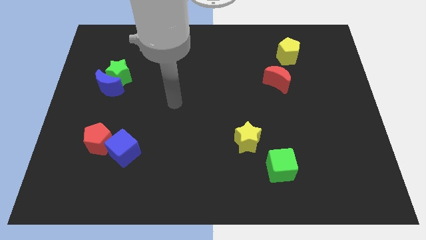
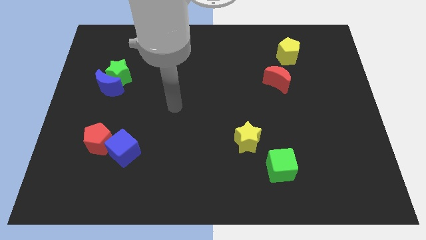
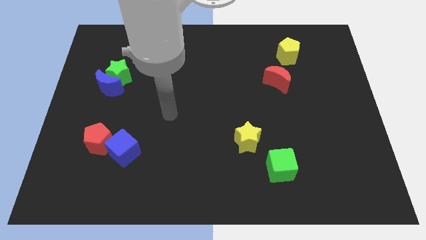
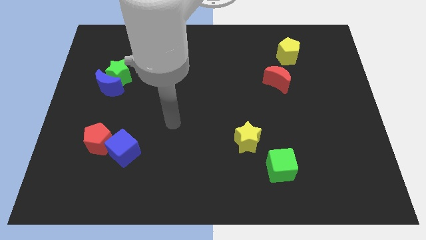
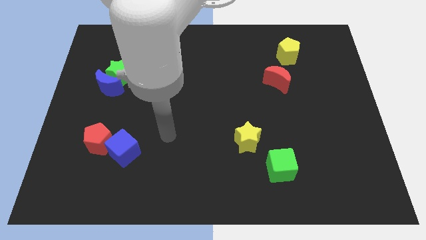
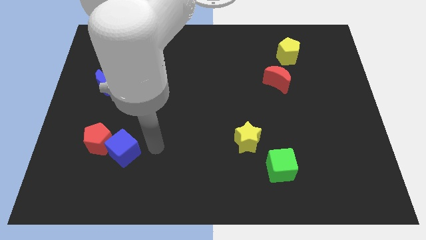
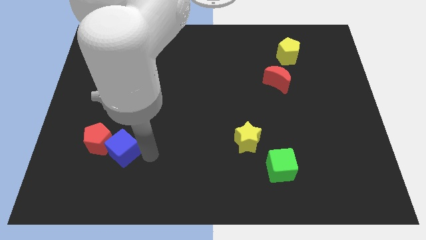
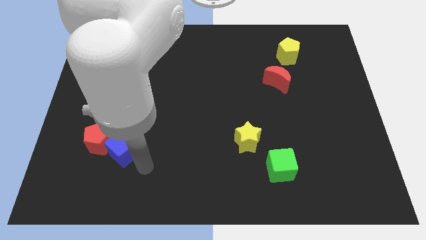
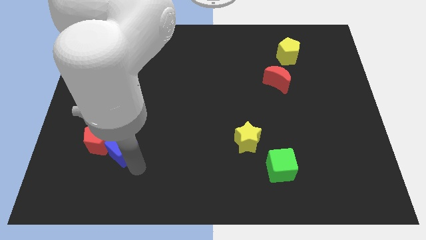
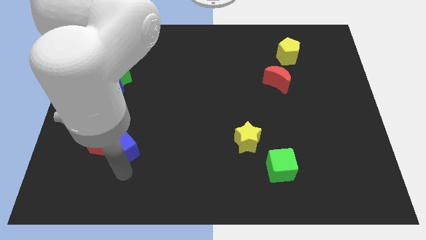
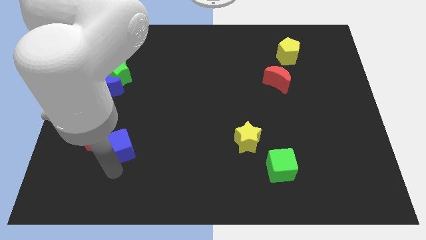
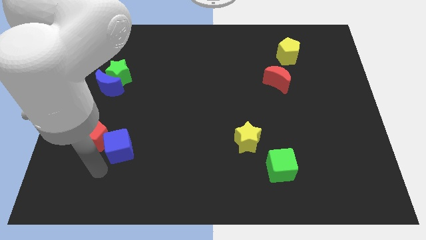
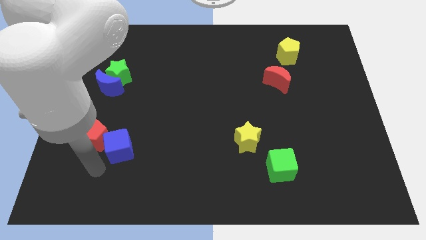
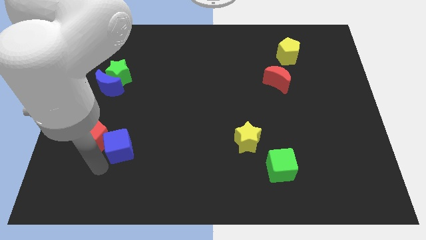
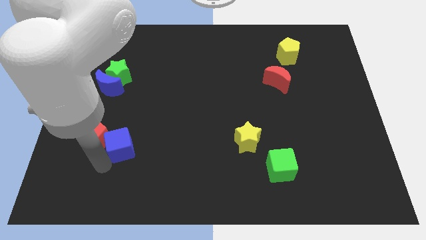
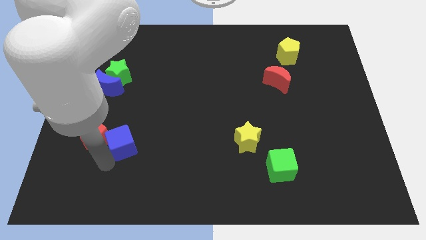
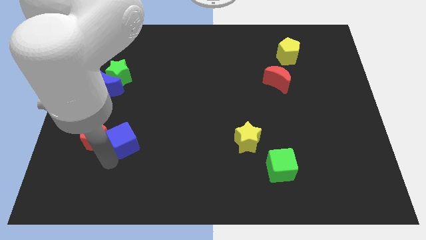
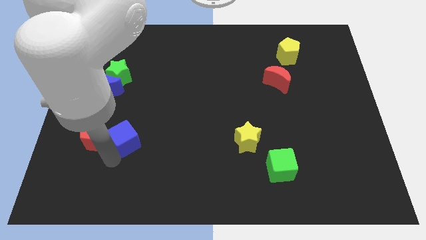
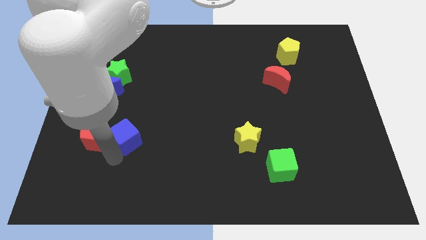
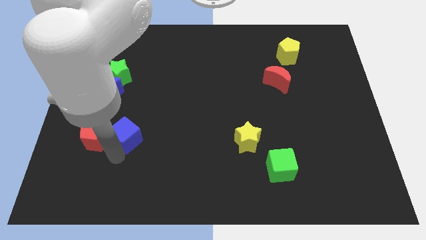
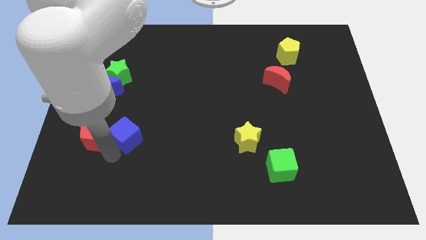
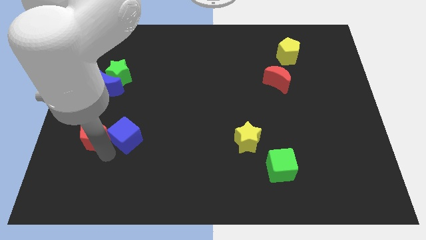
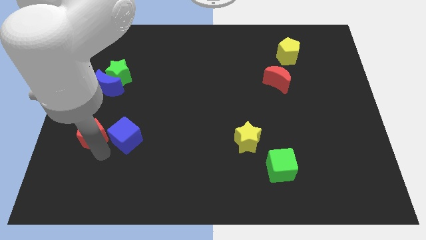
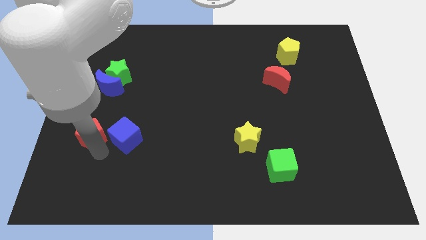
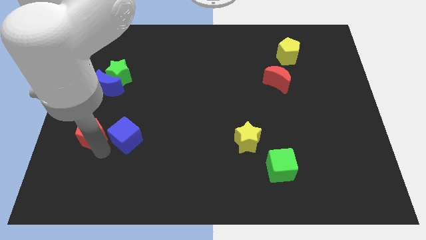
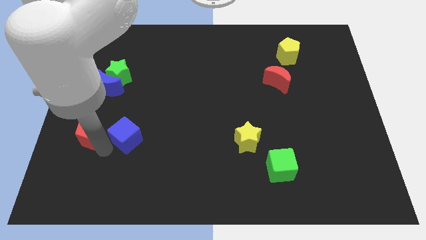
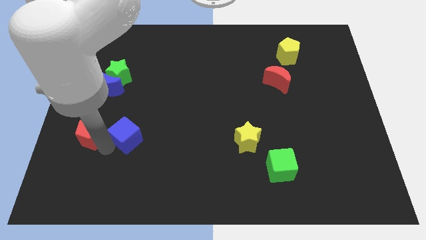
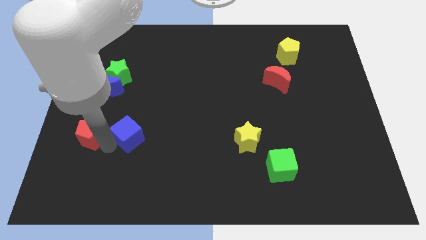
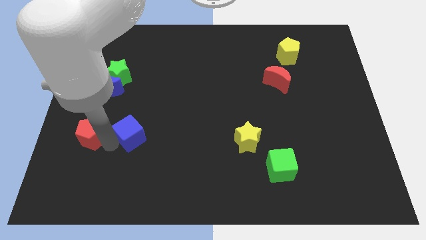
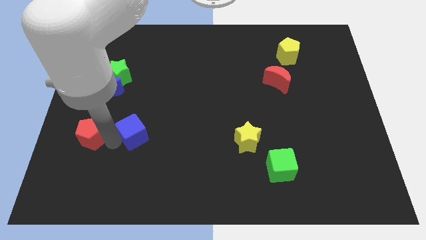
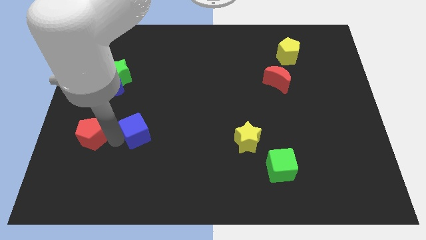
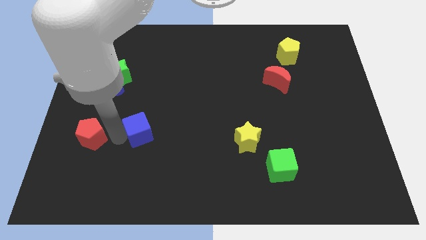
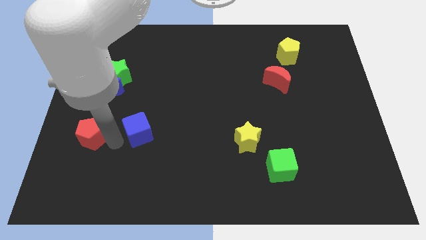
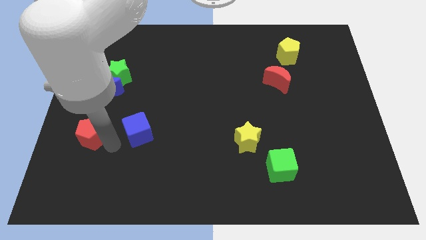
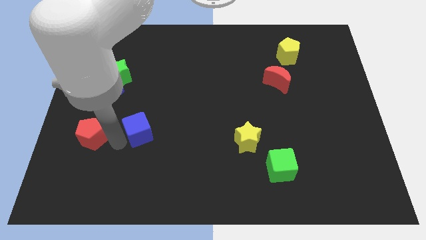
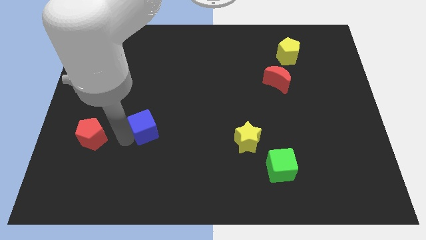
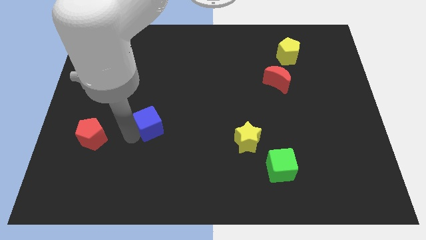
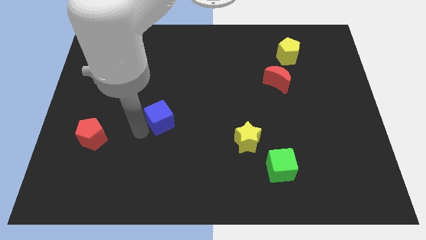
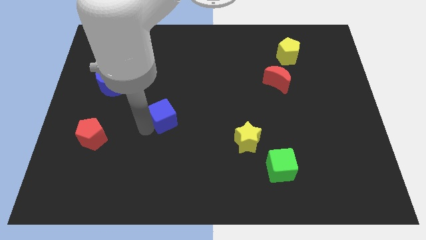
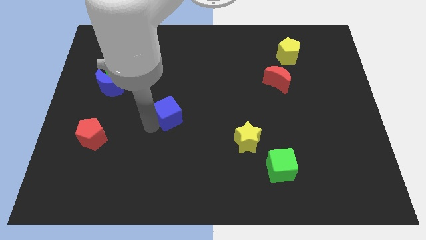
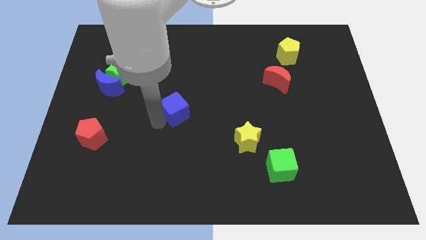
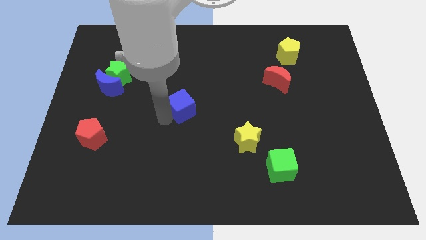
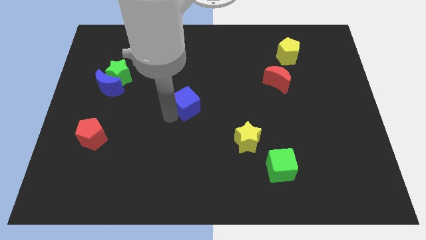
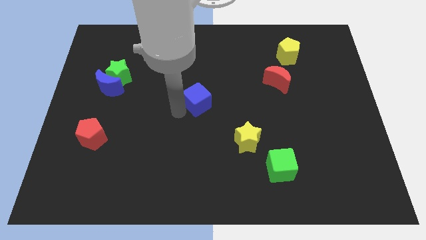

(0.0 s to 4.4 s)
move the blue cube upwards and to the right diagonally

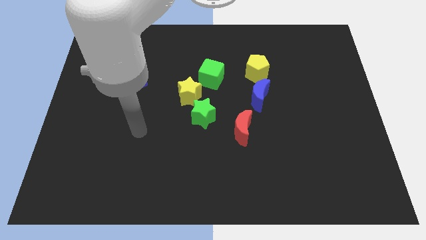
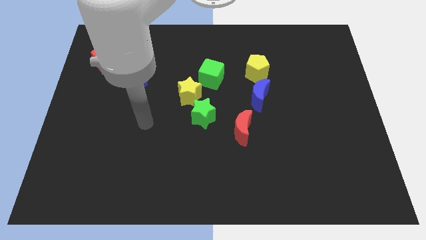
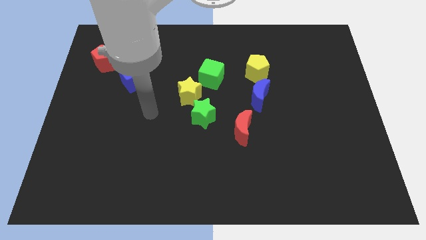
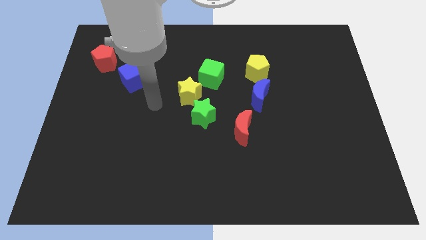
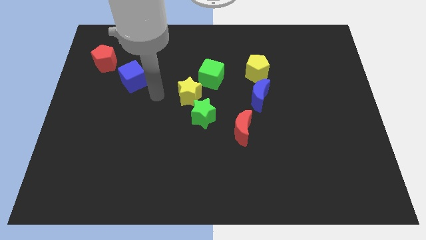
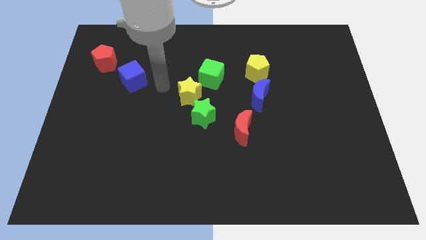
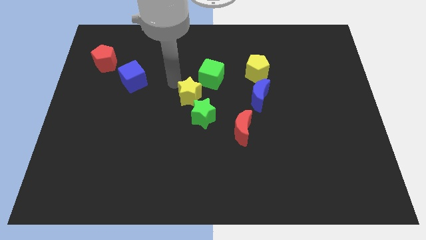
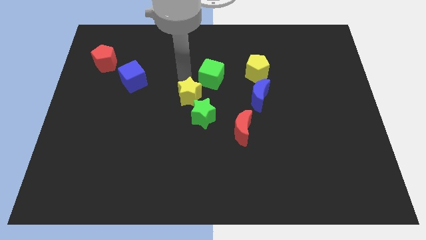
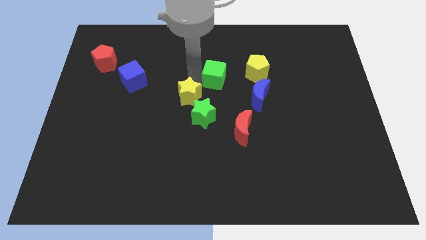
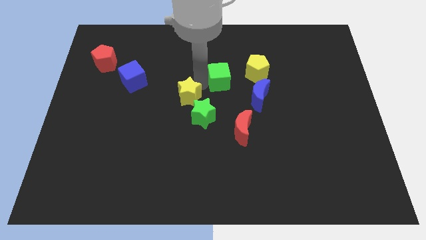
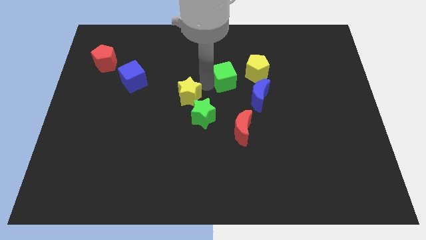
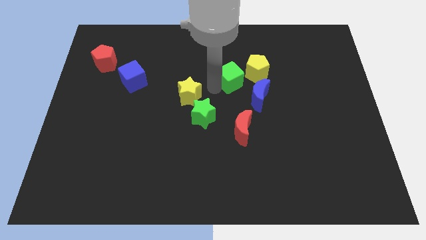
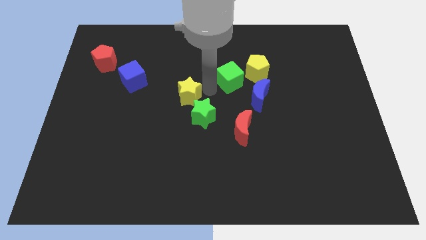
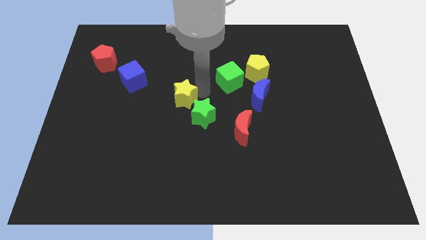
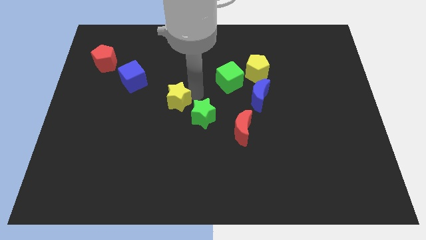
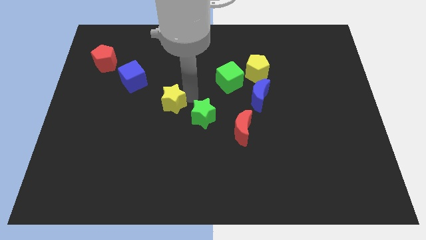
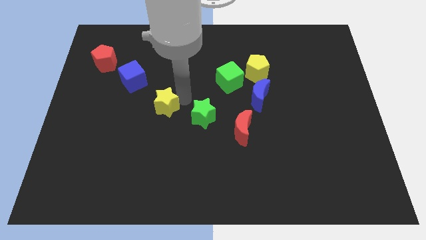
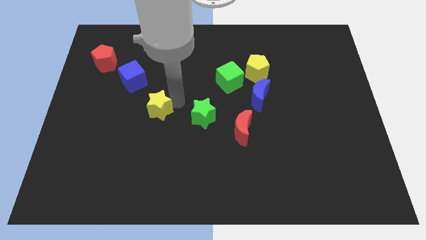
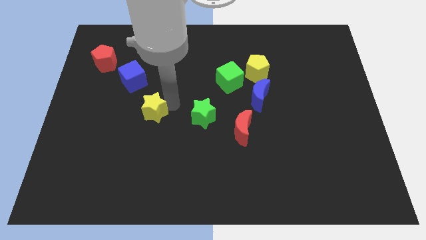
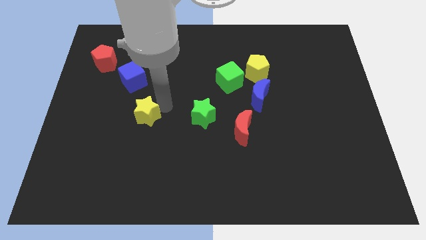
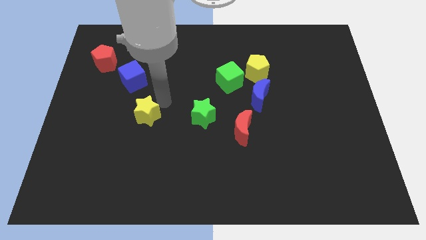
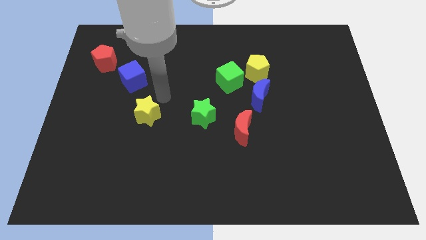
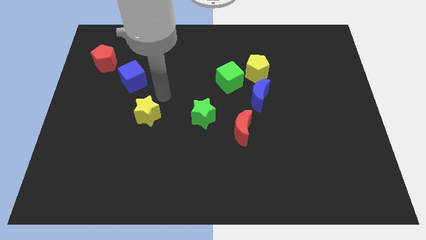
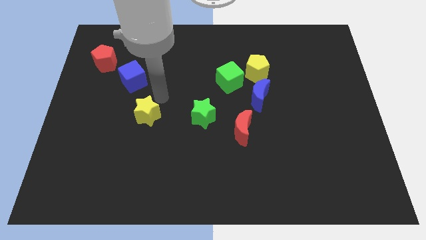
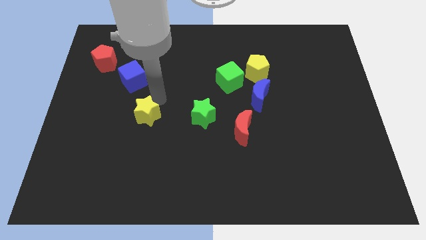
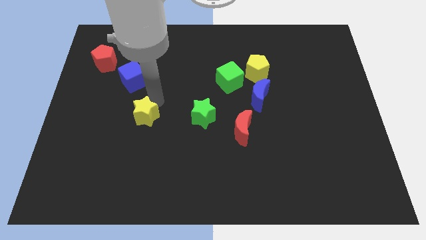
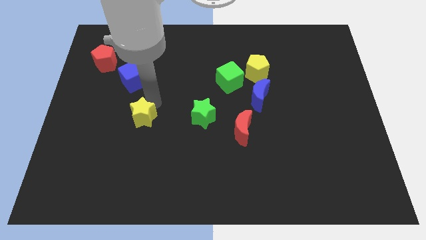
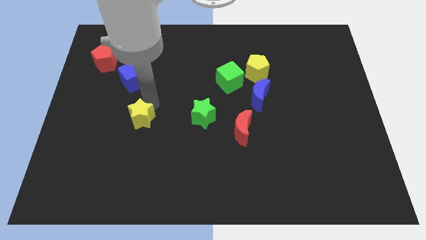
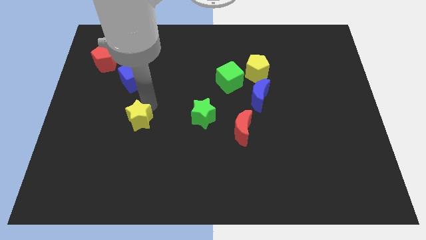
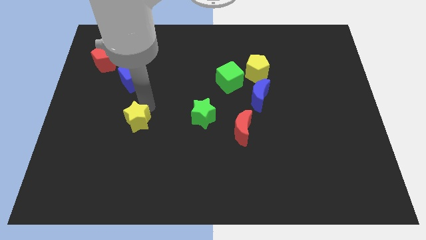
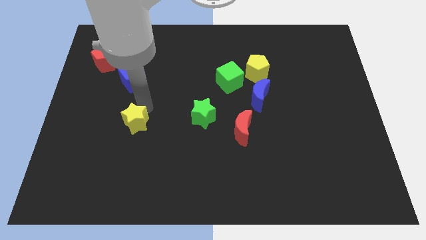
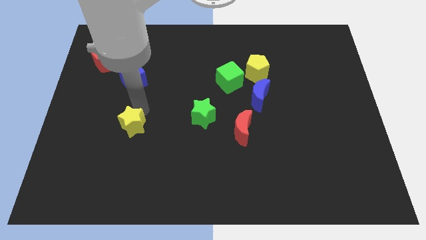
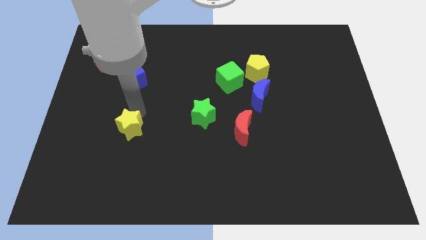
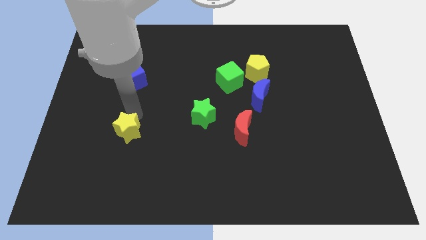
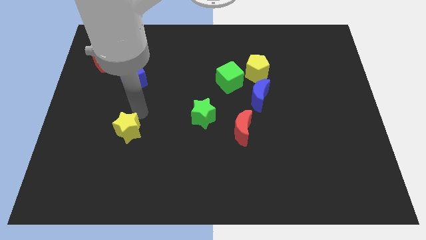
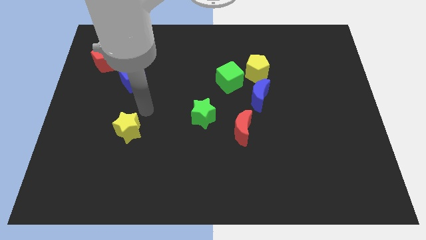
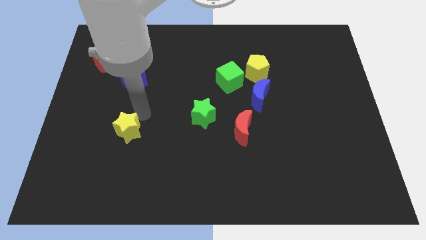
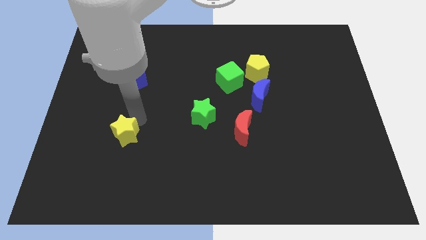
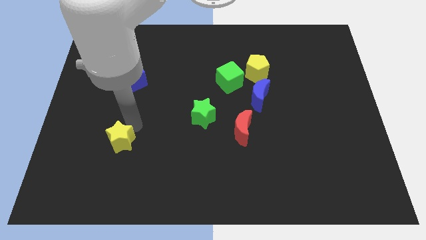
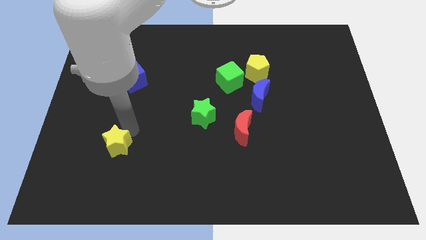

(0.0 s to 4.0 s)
push the yellow star down and left diagonally
